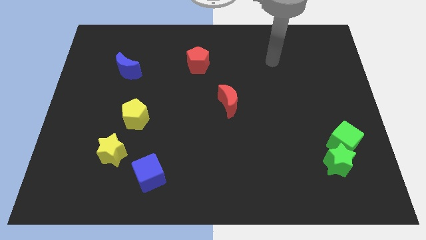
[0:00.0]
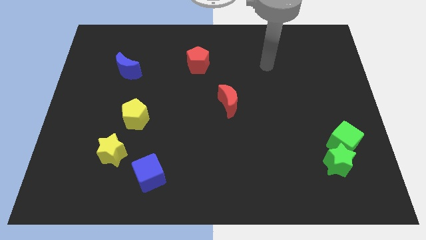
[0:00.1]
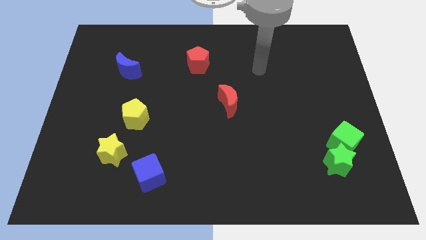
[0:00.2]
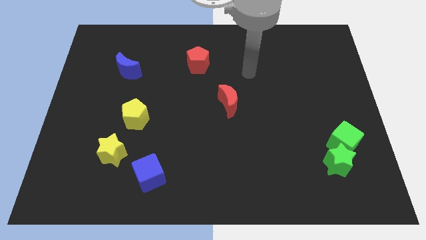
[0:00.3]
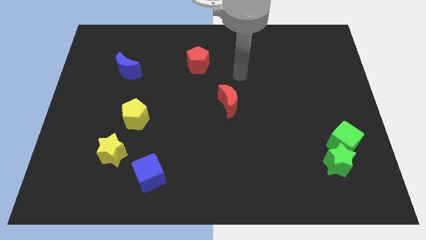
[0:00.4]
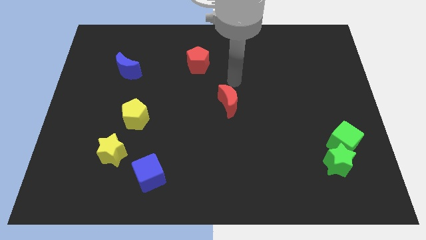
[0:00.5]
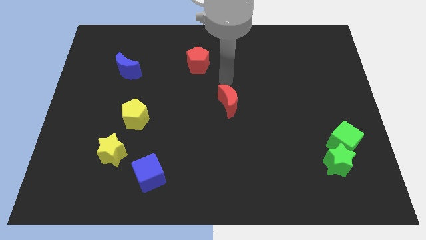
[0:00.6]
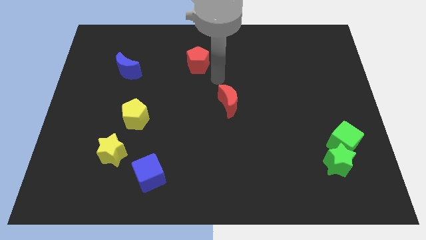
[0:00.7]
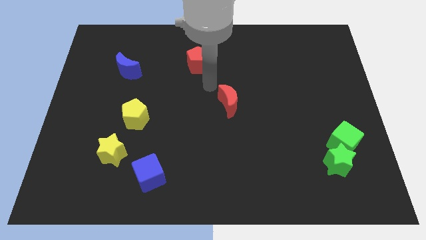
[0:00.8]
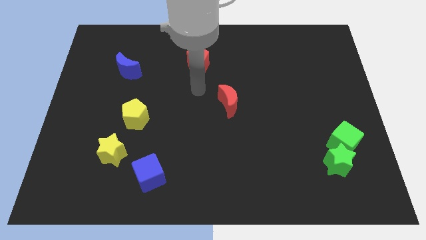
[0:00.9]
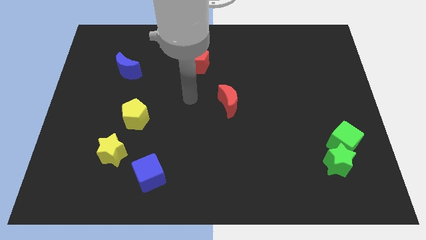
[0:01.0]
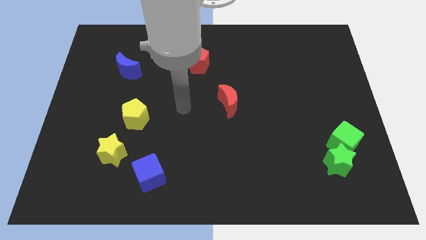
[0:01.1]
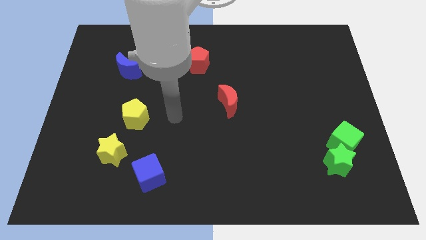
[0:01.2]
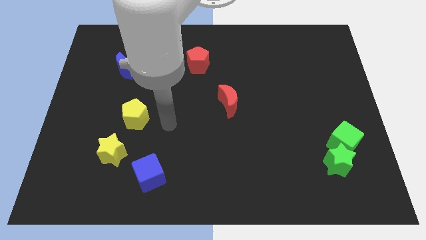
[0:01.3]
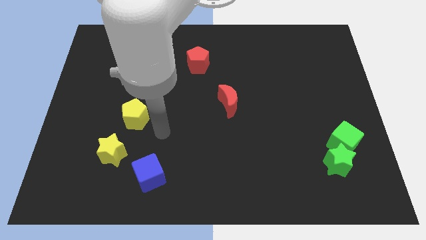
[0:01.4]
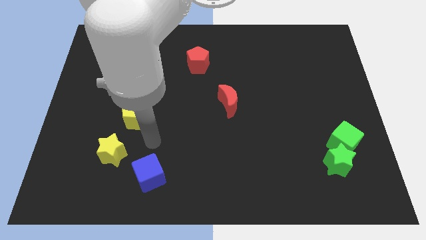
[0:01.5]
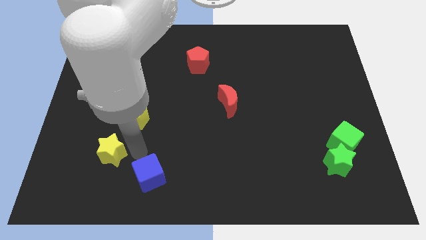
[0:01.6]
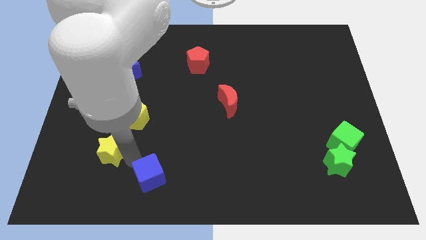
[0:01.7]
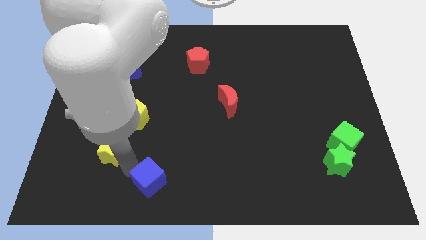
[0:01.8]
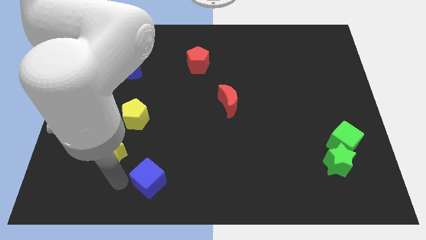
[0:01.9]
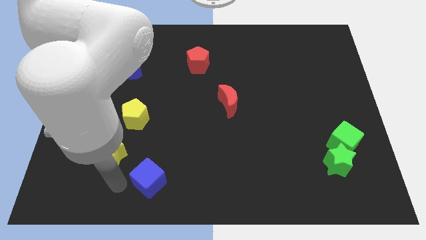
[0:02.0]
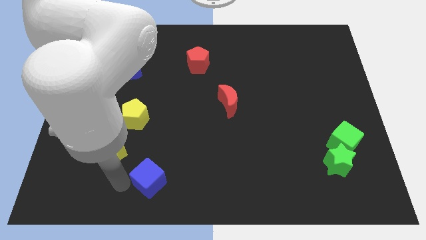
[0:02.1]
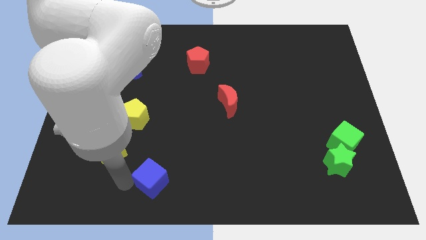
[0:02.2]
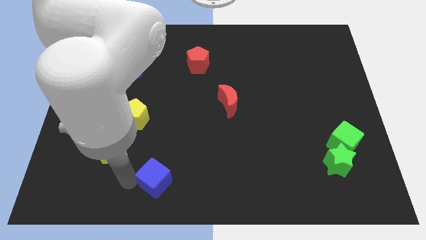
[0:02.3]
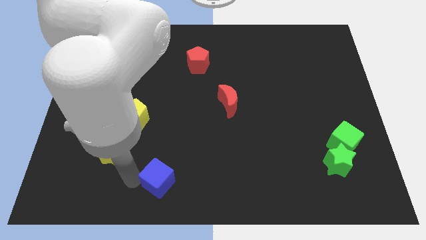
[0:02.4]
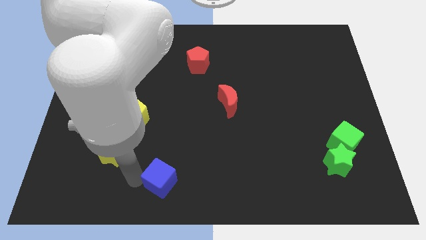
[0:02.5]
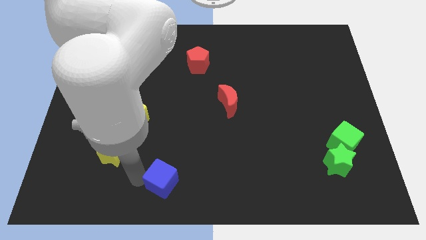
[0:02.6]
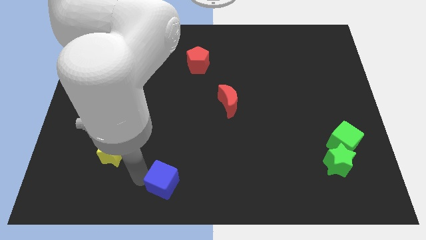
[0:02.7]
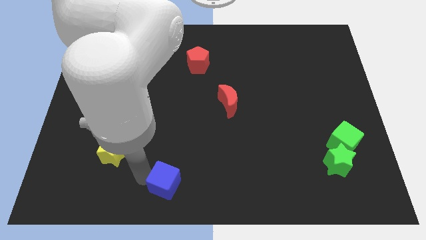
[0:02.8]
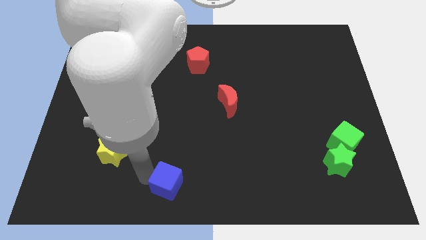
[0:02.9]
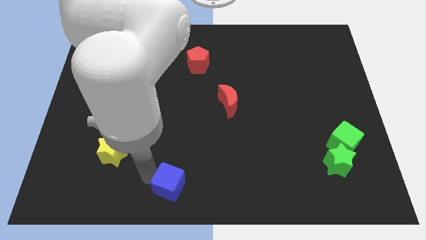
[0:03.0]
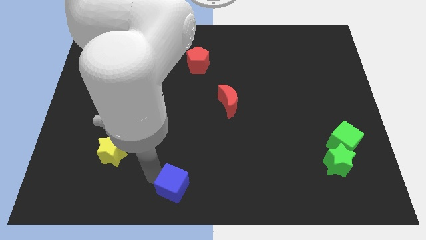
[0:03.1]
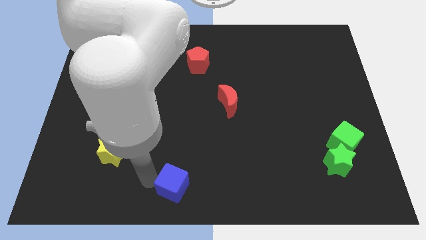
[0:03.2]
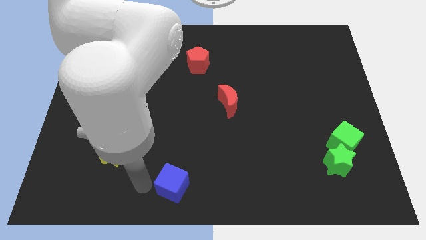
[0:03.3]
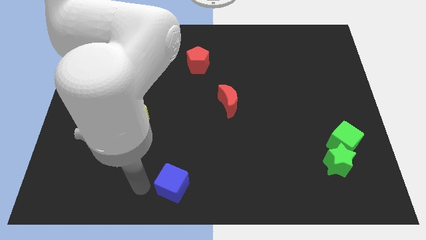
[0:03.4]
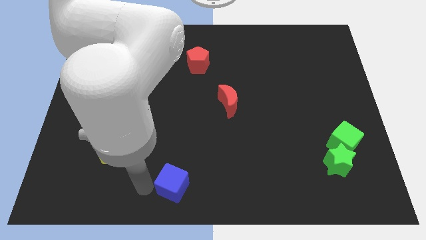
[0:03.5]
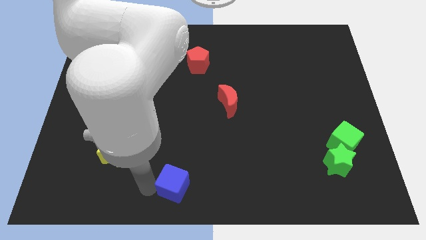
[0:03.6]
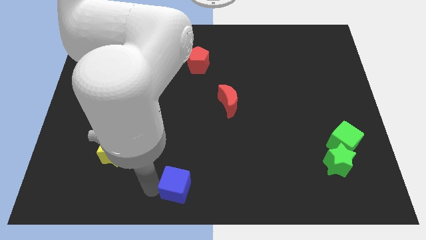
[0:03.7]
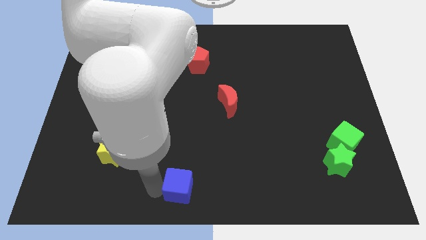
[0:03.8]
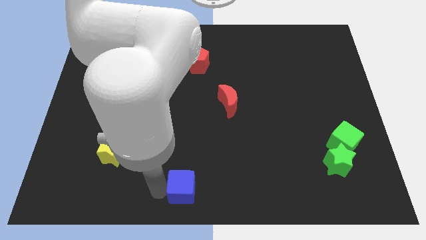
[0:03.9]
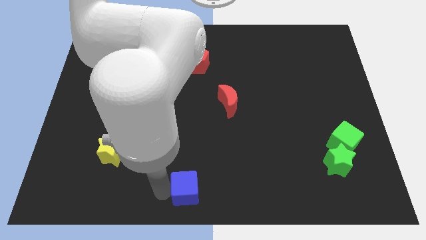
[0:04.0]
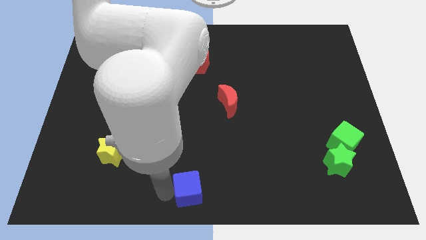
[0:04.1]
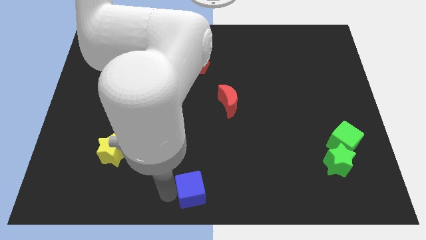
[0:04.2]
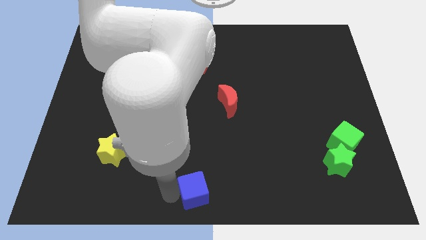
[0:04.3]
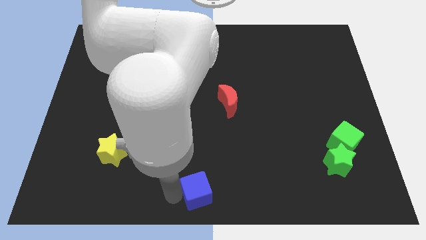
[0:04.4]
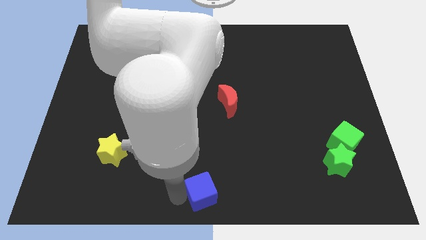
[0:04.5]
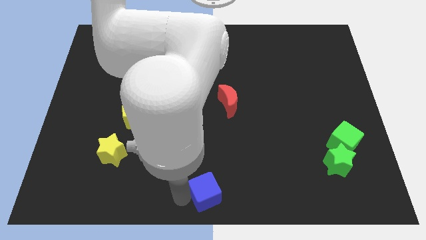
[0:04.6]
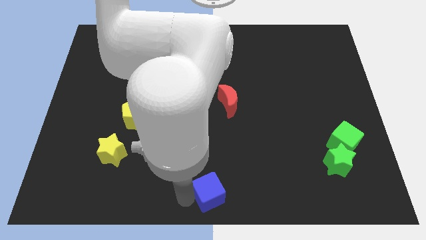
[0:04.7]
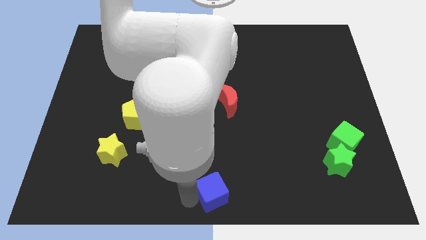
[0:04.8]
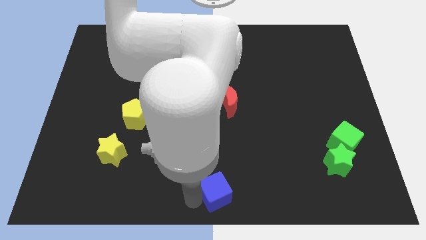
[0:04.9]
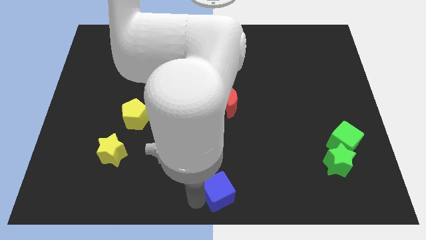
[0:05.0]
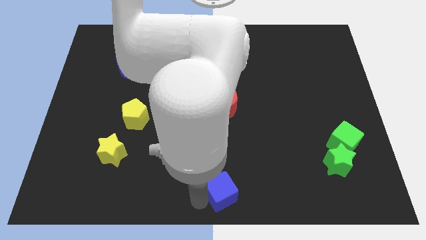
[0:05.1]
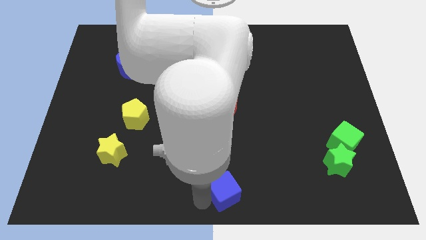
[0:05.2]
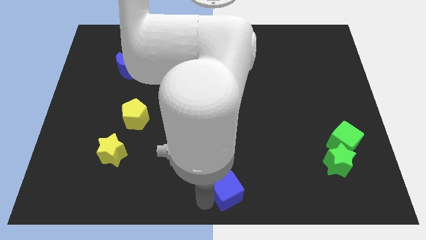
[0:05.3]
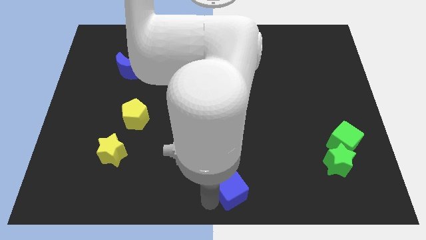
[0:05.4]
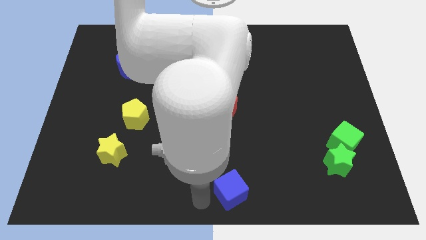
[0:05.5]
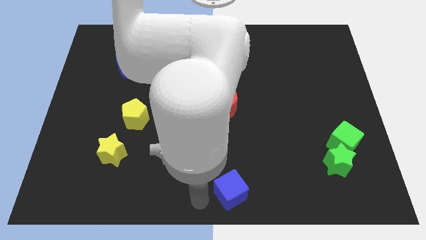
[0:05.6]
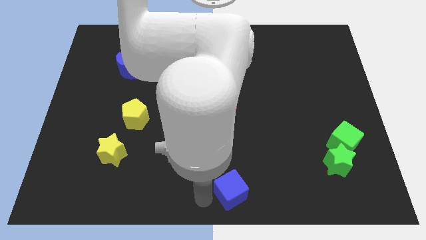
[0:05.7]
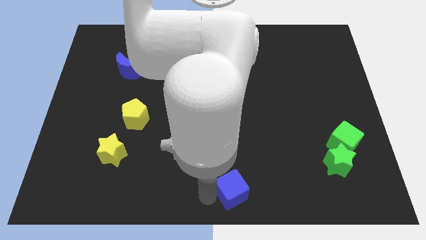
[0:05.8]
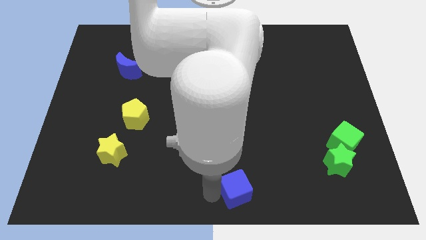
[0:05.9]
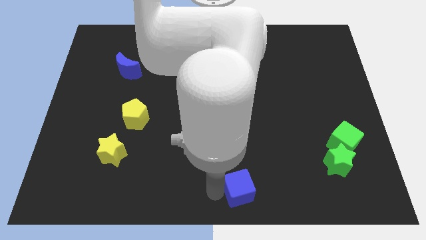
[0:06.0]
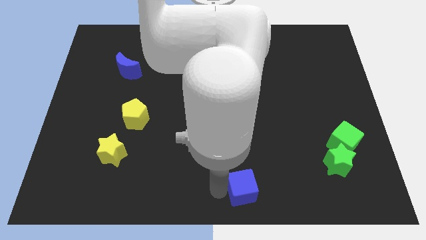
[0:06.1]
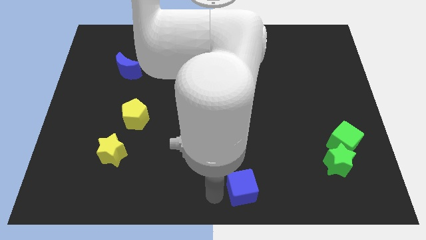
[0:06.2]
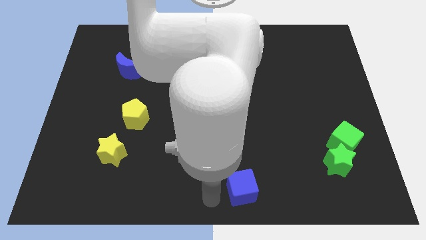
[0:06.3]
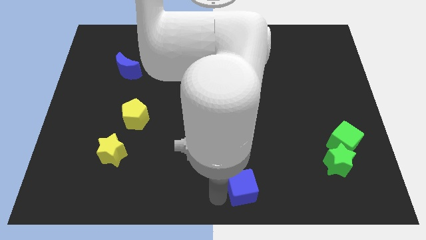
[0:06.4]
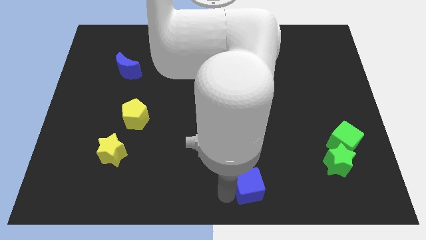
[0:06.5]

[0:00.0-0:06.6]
move the blue cube right

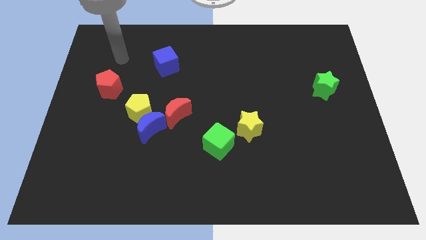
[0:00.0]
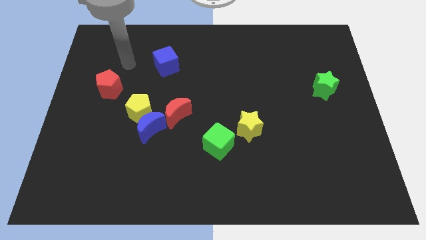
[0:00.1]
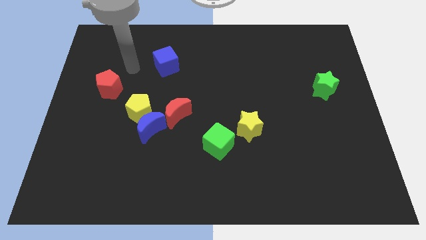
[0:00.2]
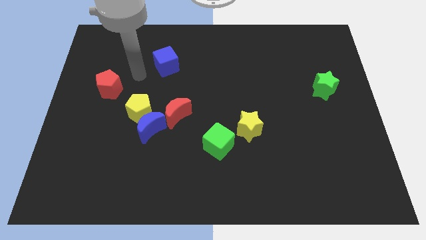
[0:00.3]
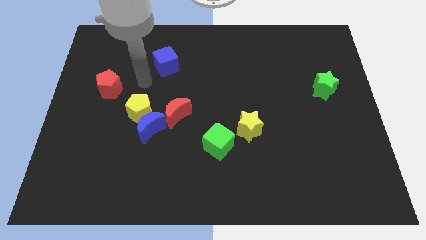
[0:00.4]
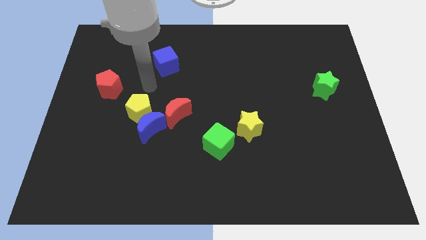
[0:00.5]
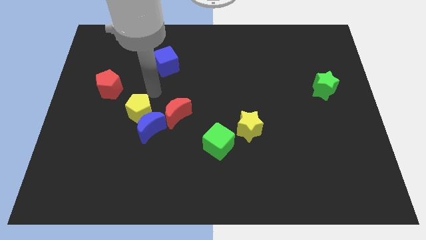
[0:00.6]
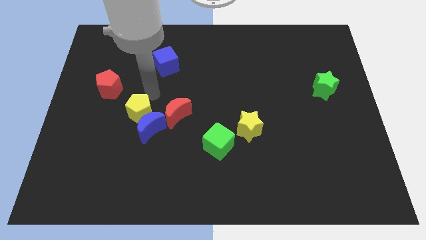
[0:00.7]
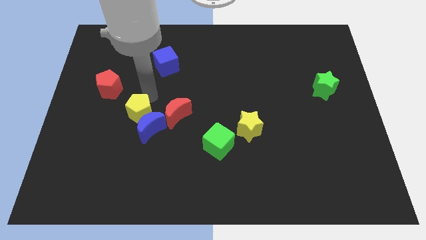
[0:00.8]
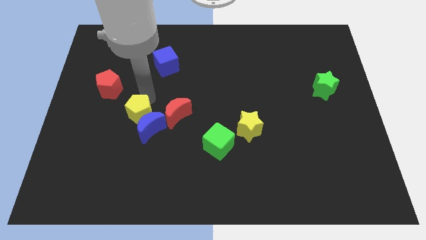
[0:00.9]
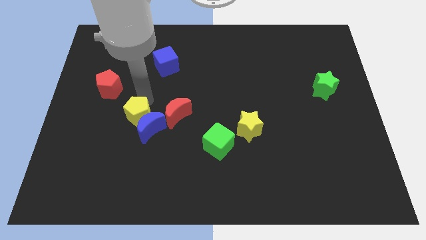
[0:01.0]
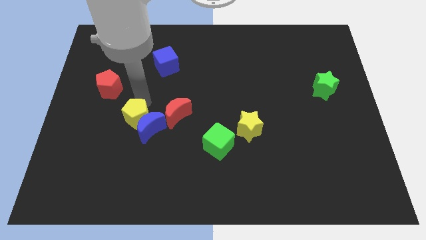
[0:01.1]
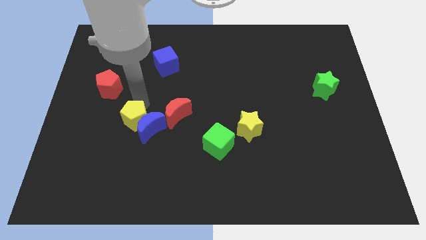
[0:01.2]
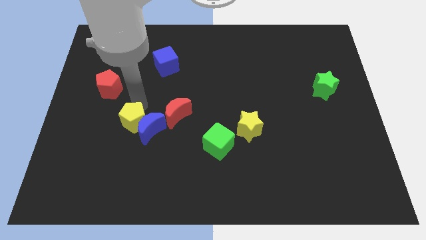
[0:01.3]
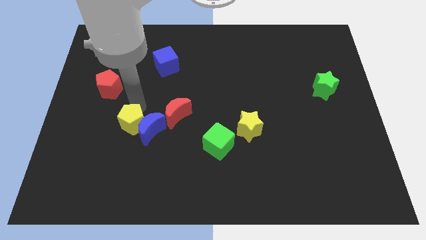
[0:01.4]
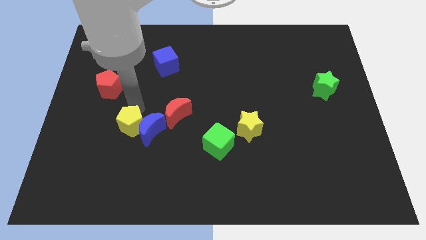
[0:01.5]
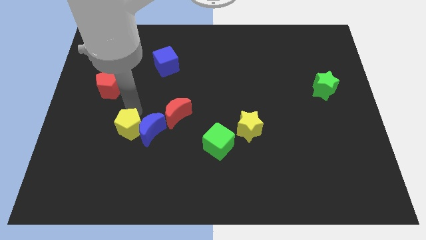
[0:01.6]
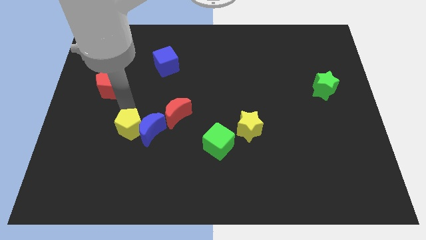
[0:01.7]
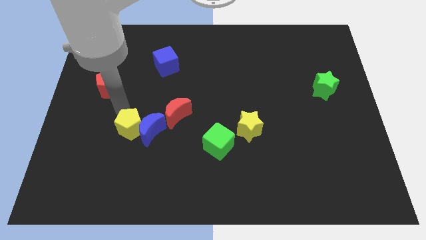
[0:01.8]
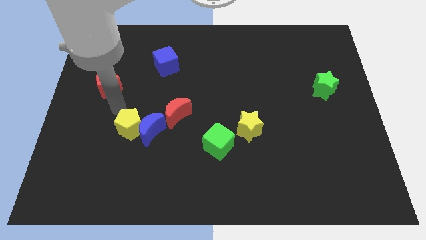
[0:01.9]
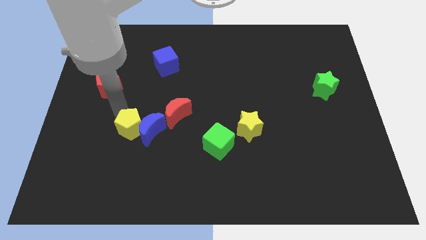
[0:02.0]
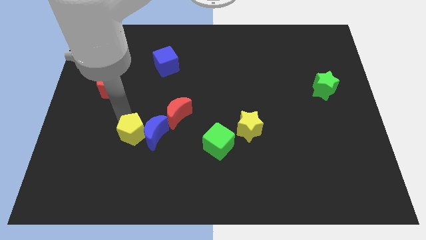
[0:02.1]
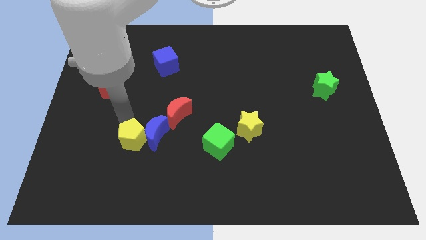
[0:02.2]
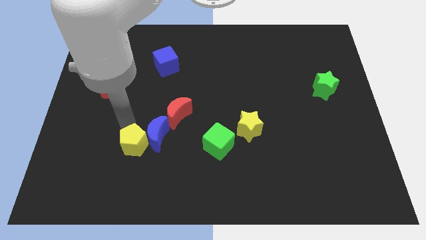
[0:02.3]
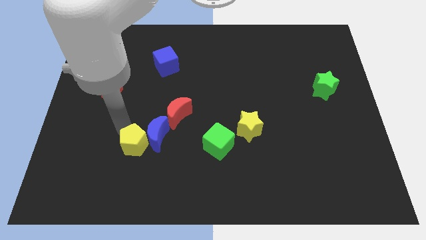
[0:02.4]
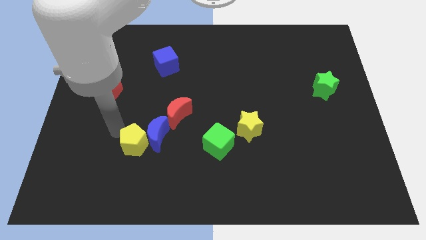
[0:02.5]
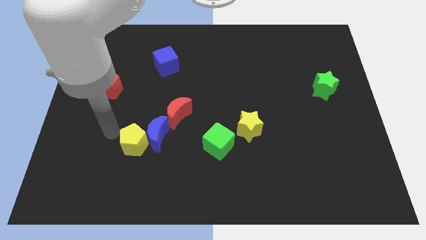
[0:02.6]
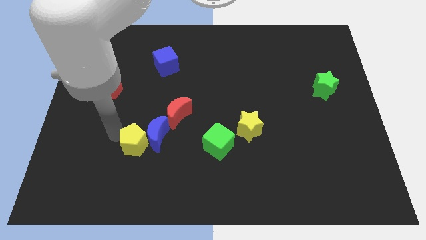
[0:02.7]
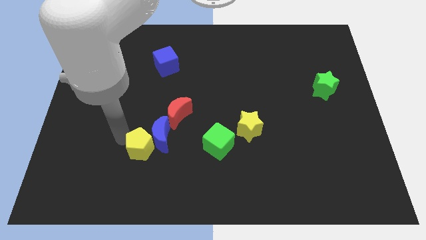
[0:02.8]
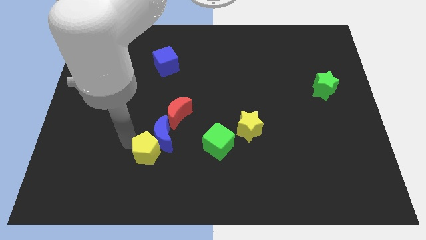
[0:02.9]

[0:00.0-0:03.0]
move the yellow pentagon a bit downwards and to the right diagonally
